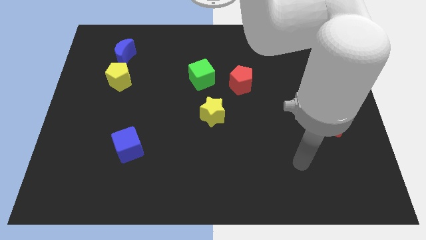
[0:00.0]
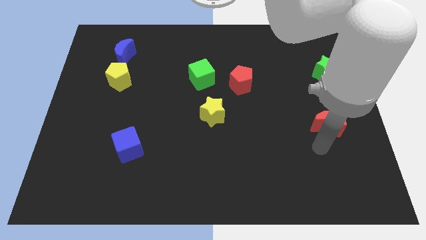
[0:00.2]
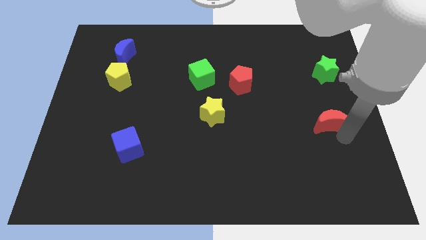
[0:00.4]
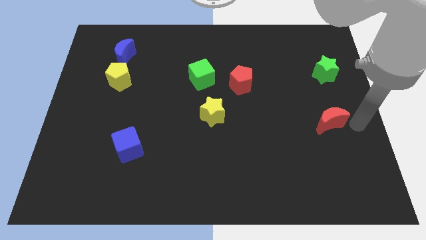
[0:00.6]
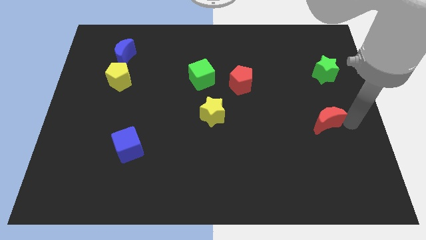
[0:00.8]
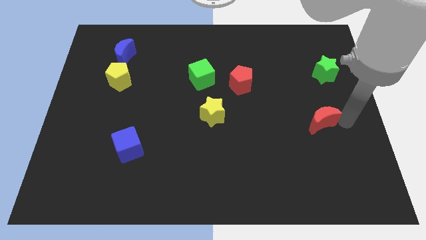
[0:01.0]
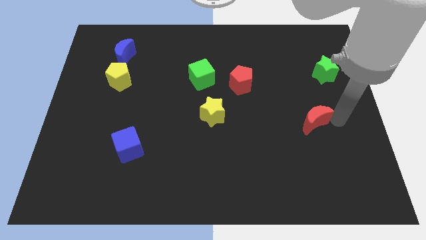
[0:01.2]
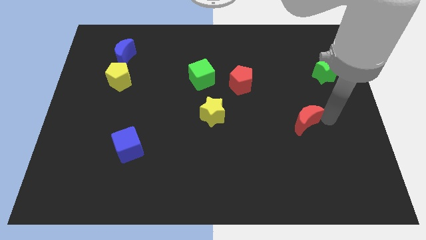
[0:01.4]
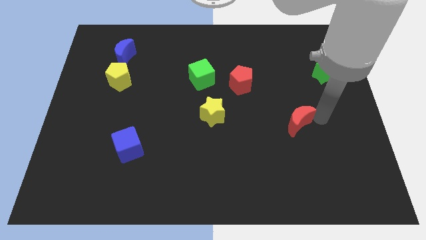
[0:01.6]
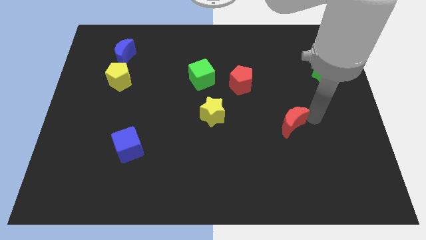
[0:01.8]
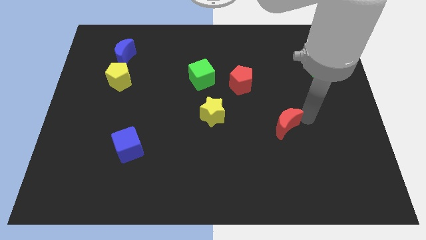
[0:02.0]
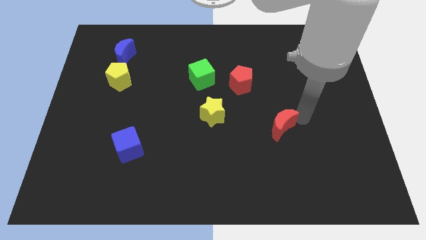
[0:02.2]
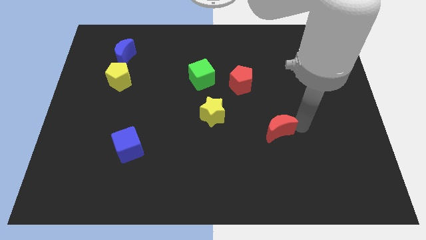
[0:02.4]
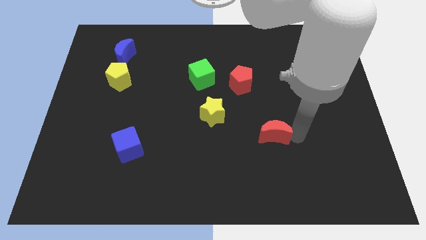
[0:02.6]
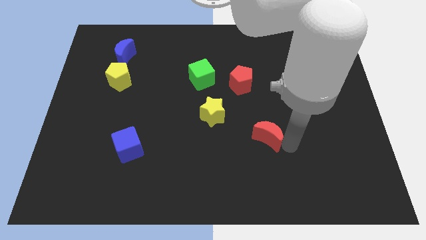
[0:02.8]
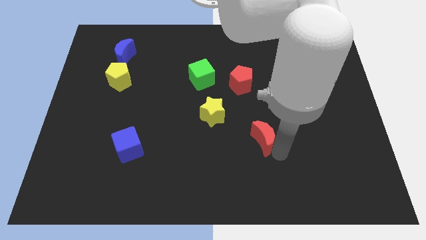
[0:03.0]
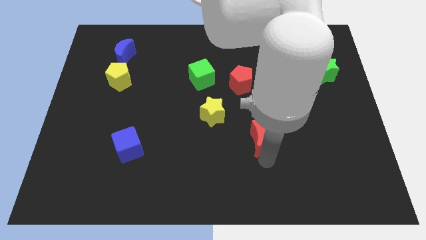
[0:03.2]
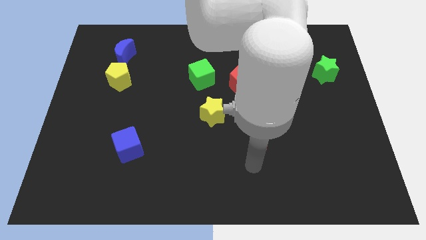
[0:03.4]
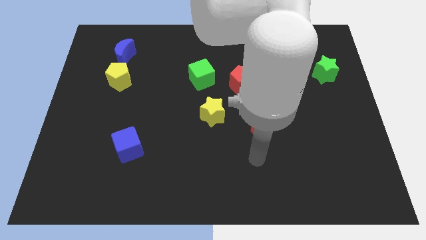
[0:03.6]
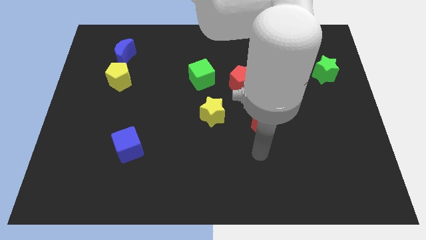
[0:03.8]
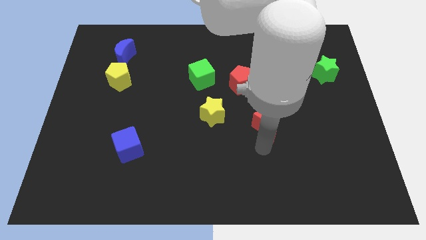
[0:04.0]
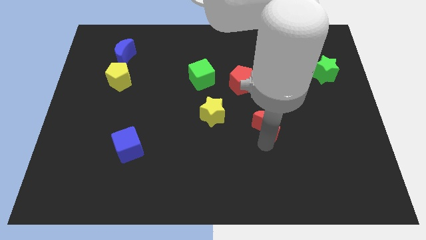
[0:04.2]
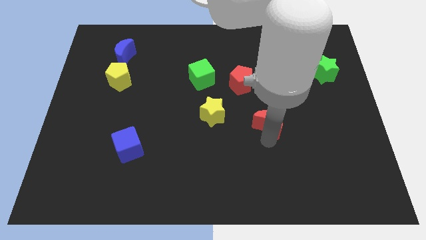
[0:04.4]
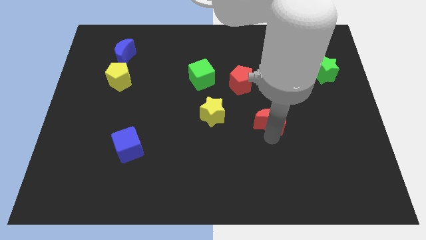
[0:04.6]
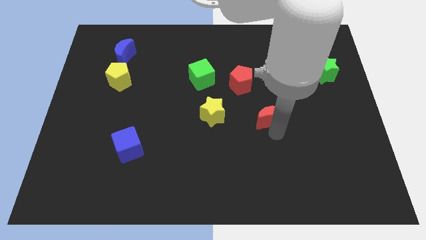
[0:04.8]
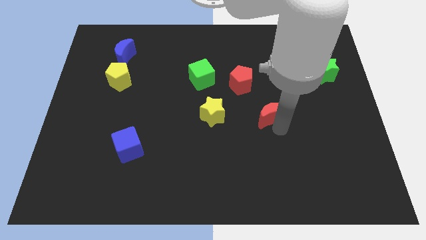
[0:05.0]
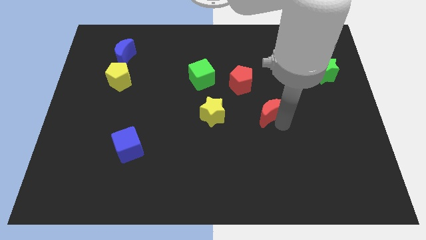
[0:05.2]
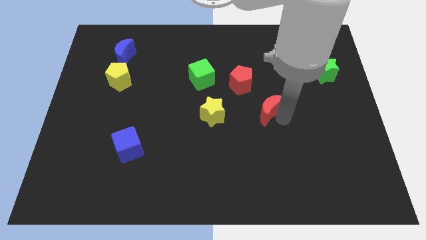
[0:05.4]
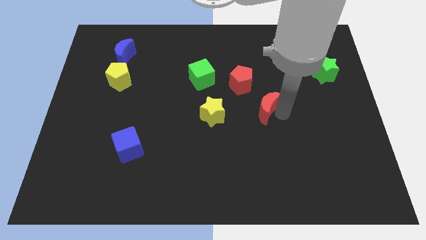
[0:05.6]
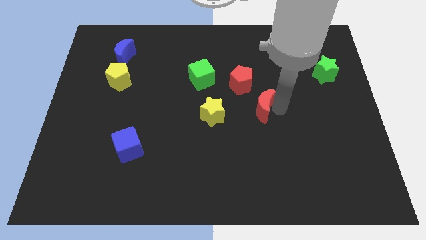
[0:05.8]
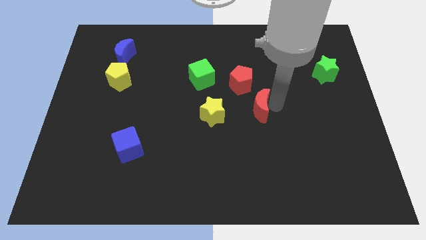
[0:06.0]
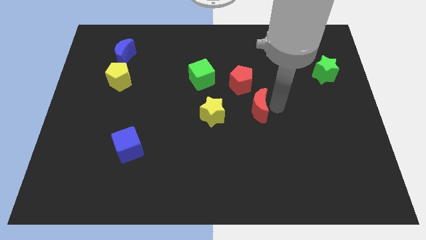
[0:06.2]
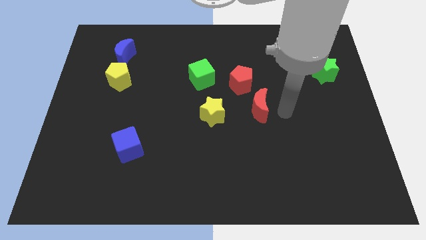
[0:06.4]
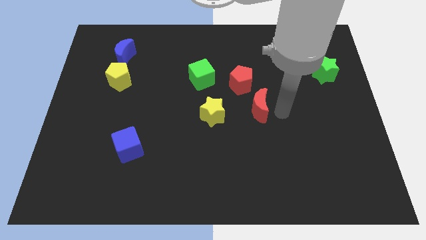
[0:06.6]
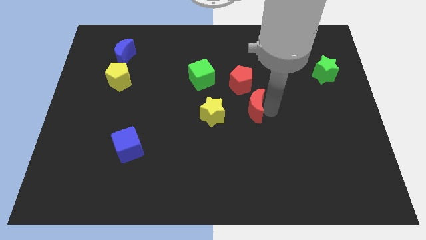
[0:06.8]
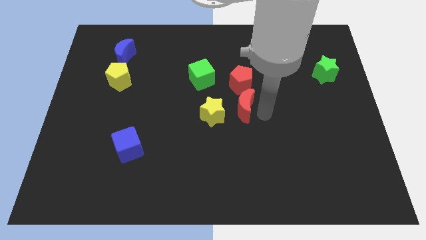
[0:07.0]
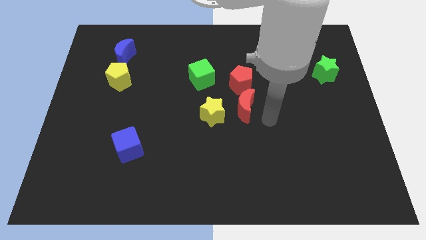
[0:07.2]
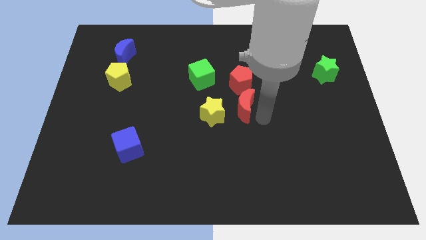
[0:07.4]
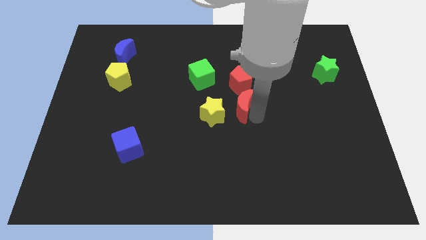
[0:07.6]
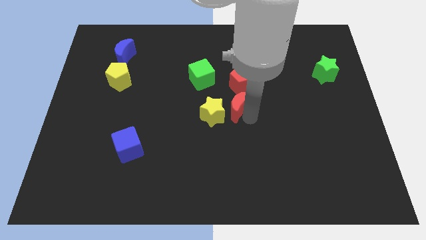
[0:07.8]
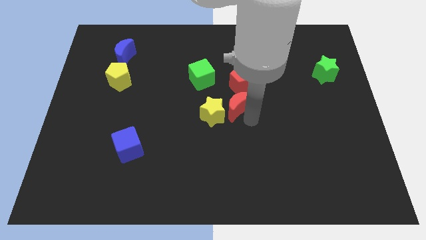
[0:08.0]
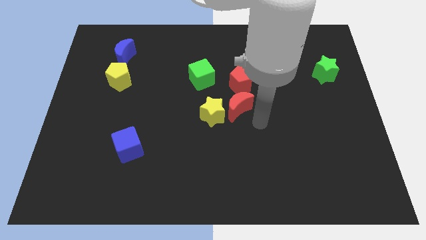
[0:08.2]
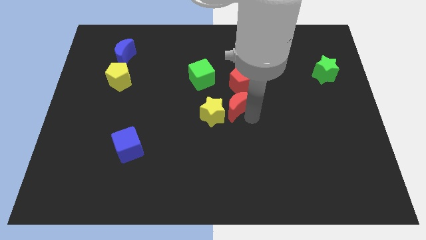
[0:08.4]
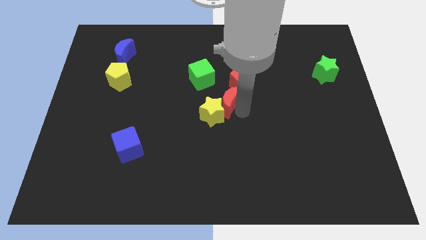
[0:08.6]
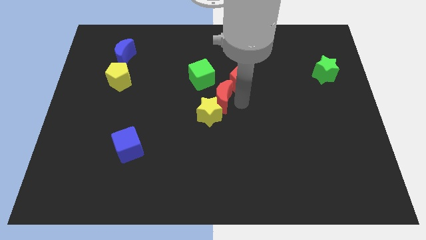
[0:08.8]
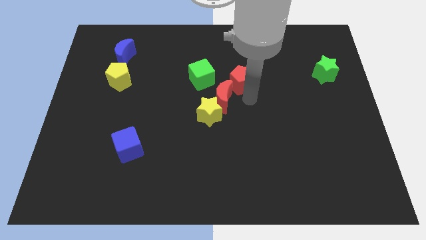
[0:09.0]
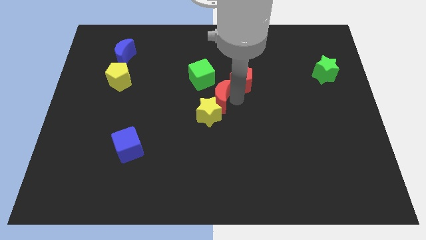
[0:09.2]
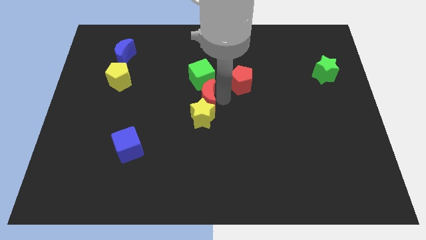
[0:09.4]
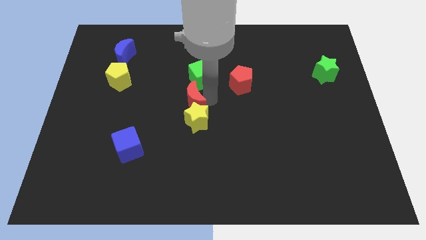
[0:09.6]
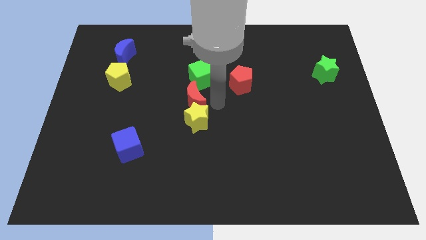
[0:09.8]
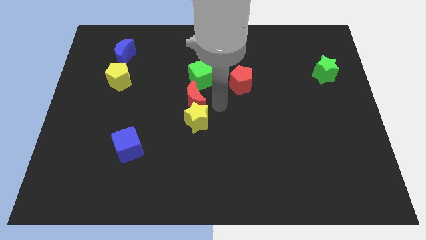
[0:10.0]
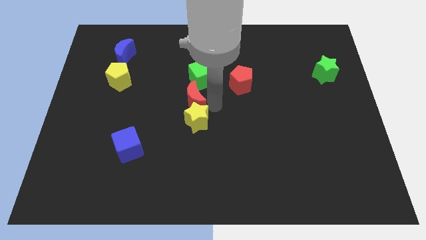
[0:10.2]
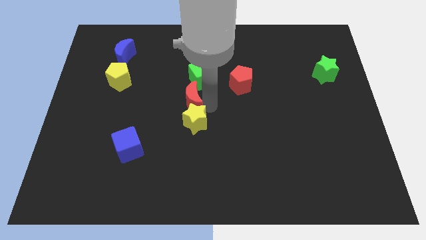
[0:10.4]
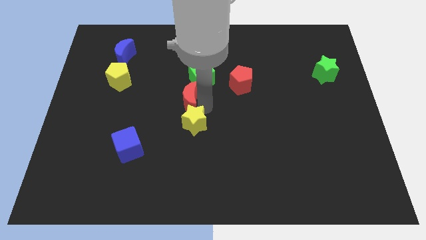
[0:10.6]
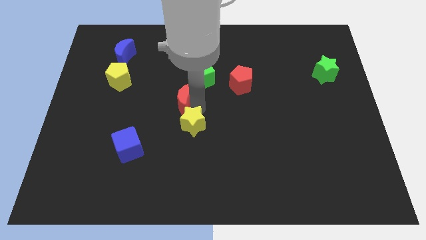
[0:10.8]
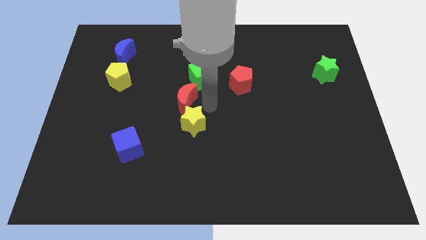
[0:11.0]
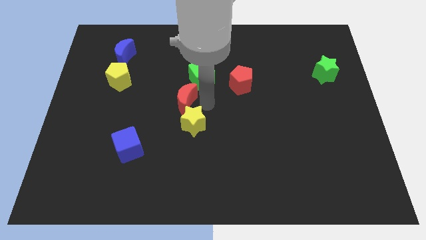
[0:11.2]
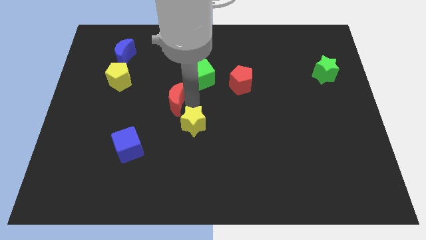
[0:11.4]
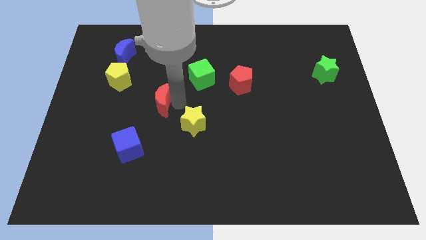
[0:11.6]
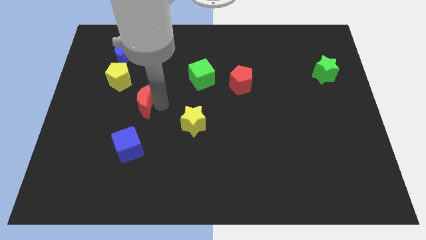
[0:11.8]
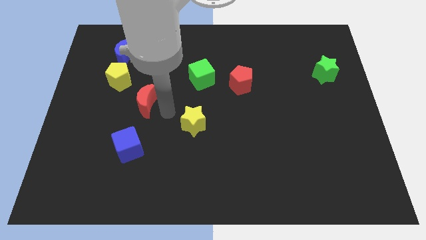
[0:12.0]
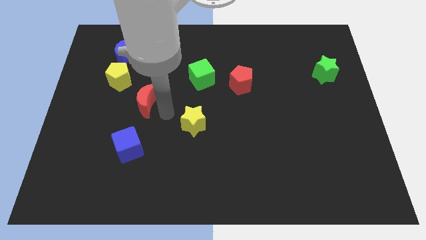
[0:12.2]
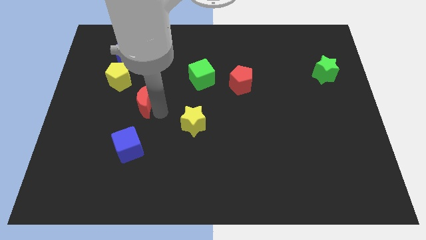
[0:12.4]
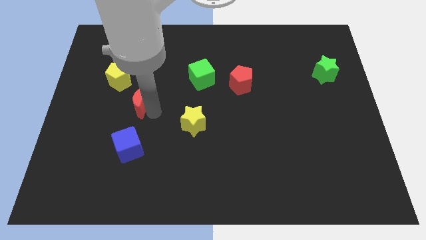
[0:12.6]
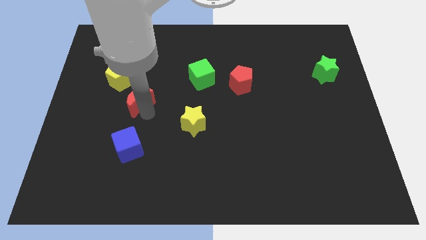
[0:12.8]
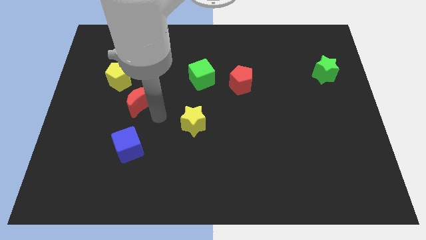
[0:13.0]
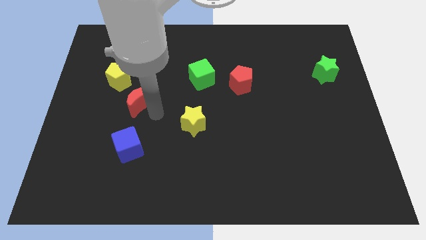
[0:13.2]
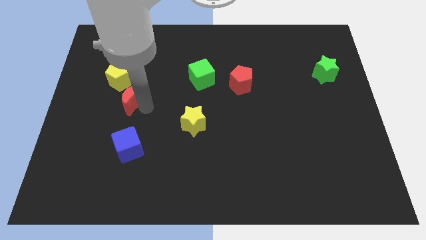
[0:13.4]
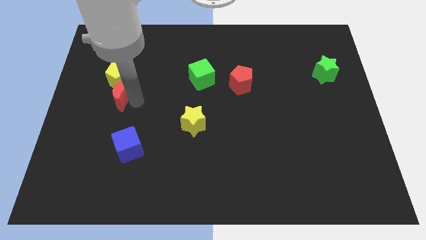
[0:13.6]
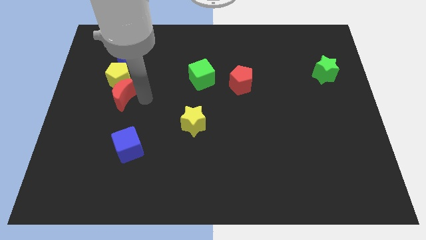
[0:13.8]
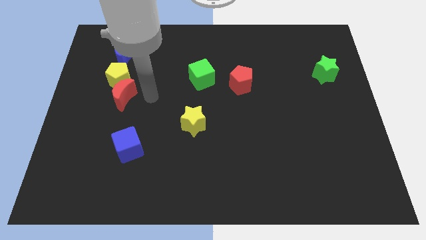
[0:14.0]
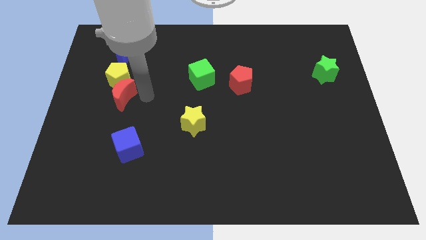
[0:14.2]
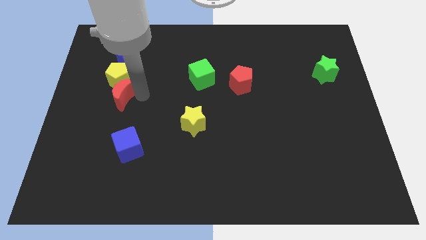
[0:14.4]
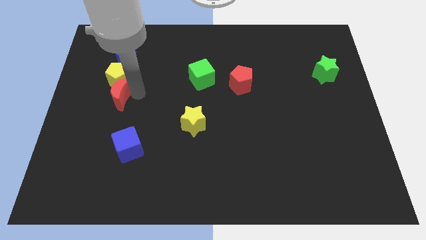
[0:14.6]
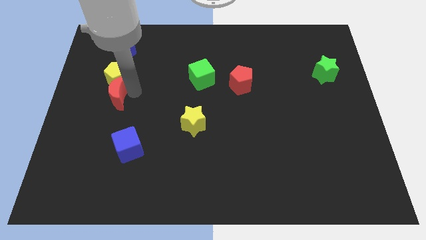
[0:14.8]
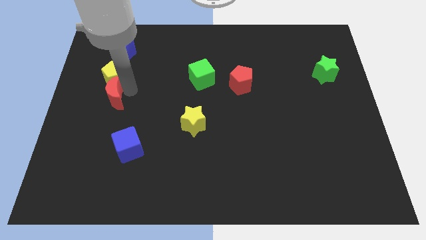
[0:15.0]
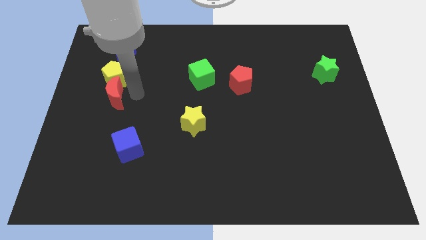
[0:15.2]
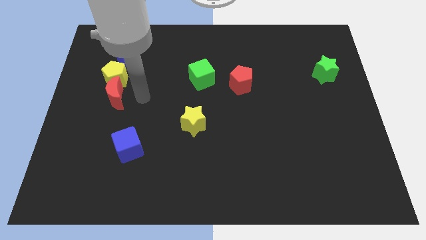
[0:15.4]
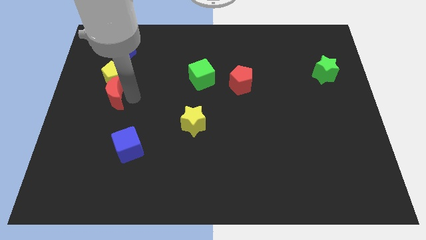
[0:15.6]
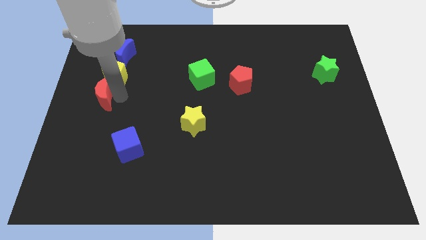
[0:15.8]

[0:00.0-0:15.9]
put the red moon to the left side of the board
